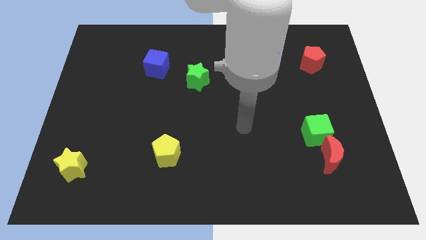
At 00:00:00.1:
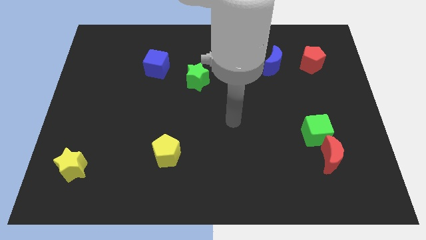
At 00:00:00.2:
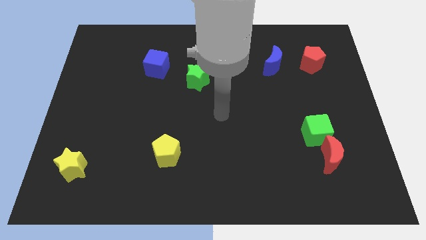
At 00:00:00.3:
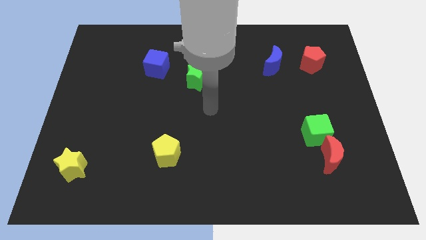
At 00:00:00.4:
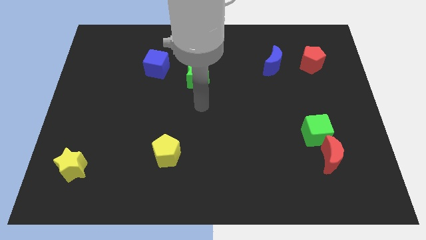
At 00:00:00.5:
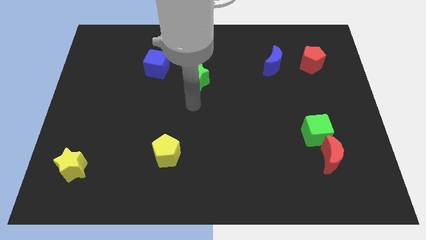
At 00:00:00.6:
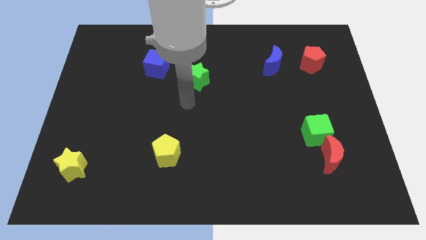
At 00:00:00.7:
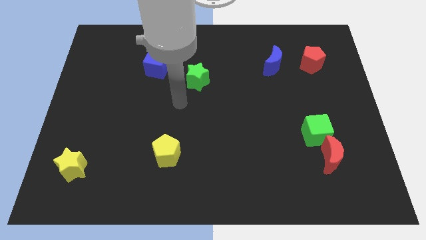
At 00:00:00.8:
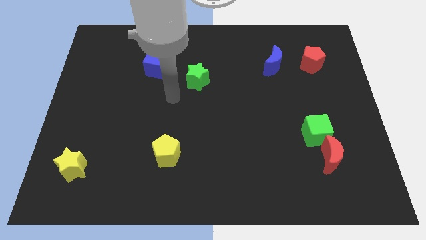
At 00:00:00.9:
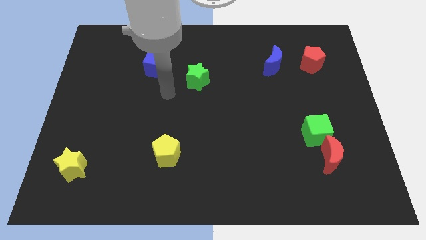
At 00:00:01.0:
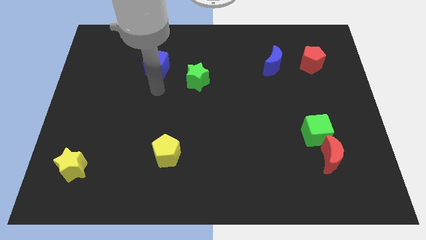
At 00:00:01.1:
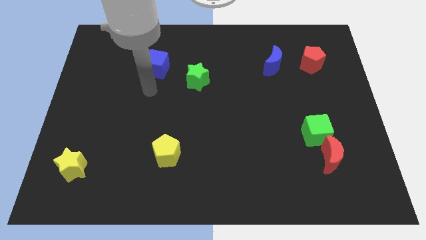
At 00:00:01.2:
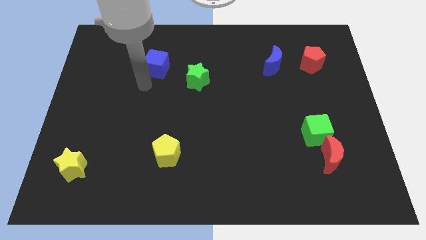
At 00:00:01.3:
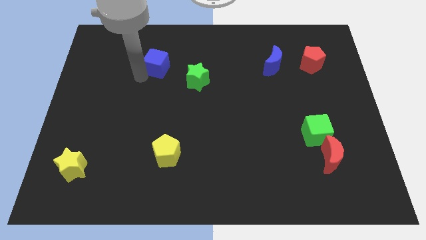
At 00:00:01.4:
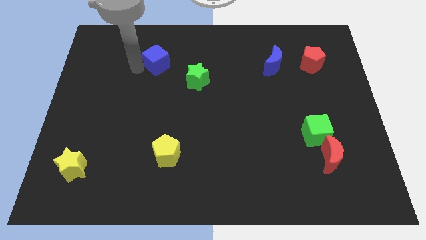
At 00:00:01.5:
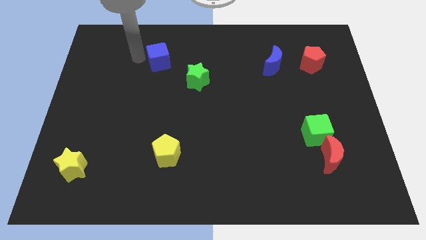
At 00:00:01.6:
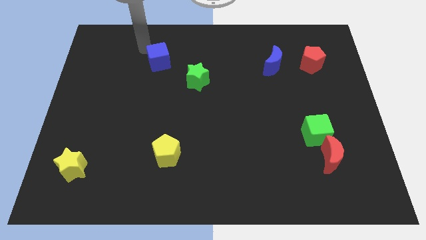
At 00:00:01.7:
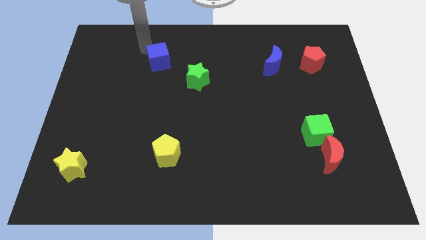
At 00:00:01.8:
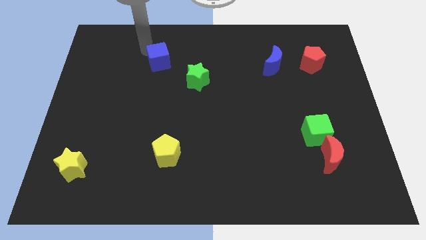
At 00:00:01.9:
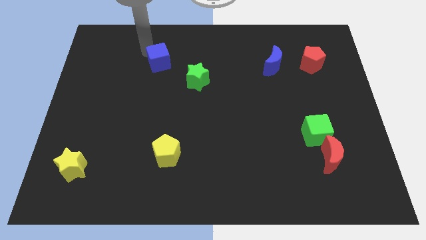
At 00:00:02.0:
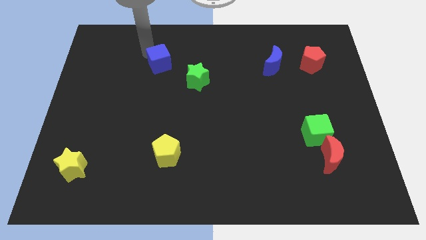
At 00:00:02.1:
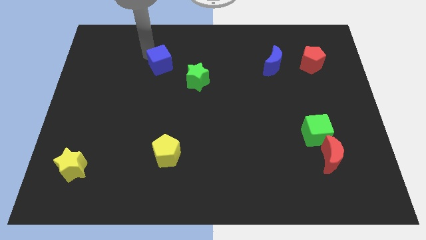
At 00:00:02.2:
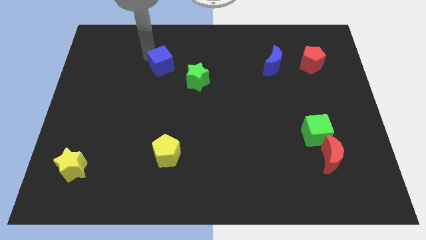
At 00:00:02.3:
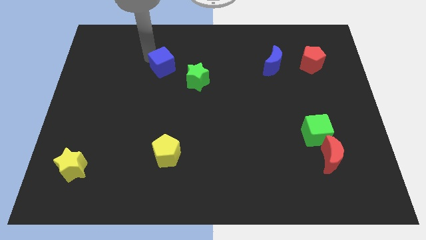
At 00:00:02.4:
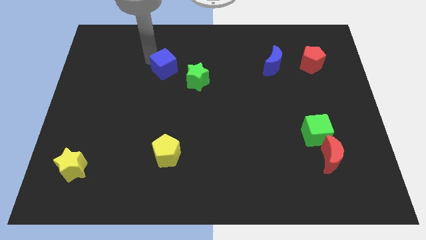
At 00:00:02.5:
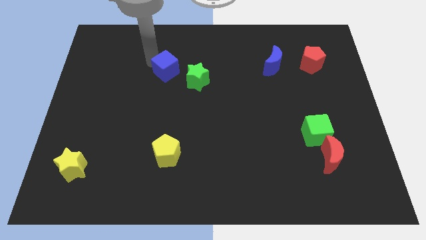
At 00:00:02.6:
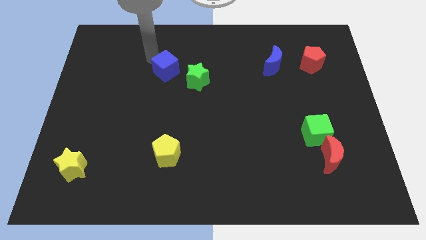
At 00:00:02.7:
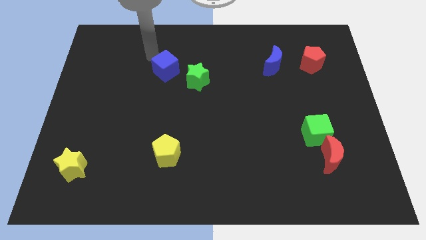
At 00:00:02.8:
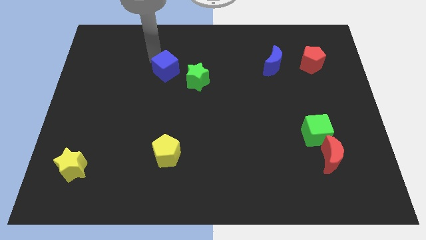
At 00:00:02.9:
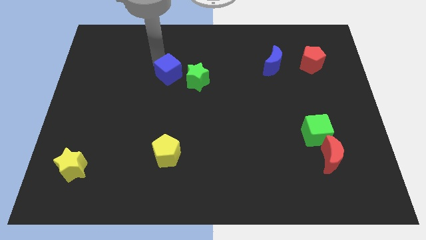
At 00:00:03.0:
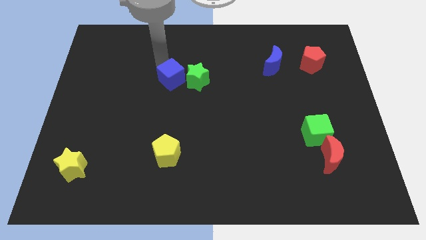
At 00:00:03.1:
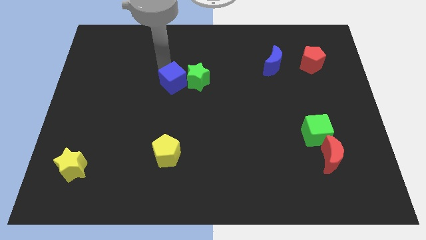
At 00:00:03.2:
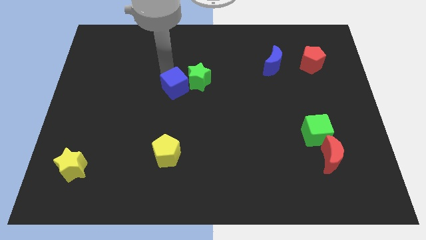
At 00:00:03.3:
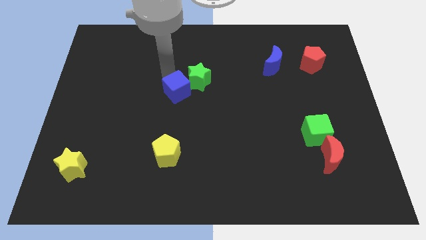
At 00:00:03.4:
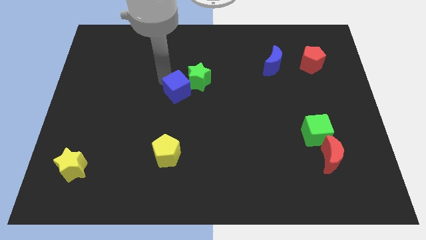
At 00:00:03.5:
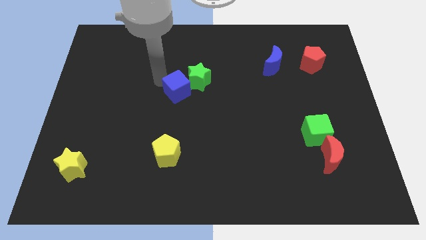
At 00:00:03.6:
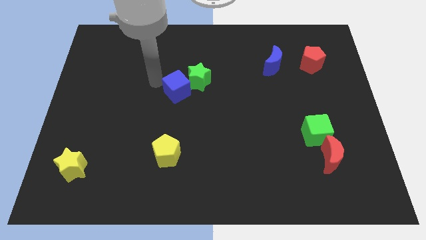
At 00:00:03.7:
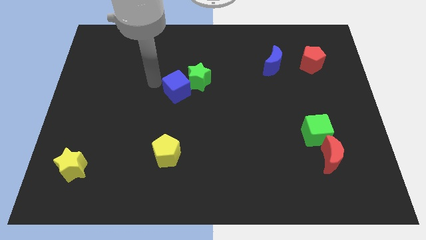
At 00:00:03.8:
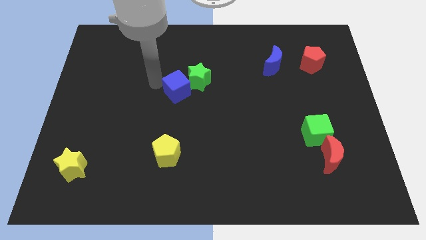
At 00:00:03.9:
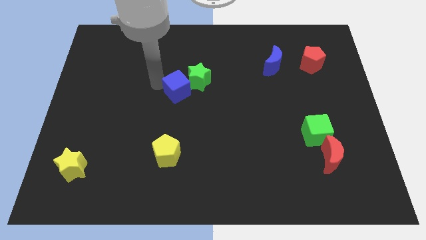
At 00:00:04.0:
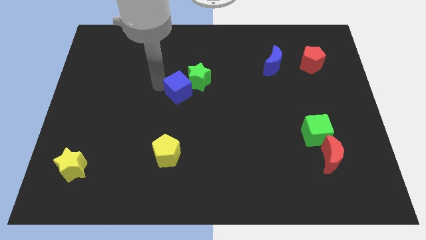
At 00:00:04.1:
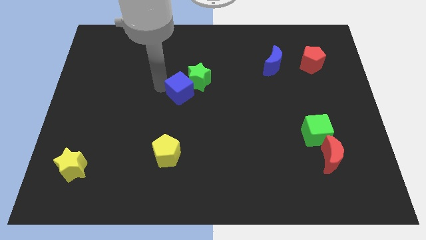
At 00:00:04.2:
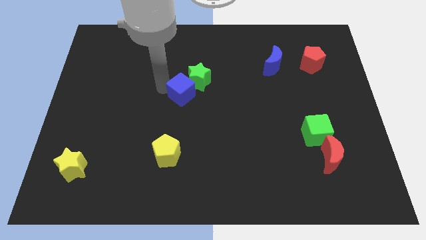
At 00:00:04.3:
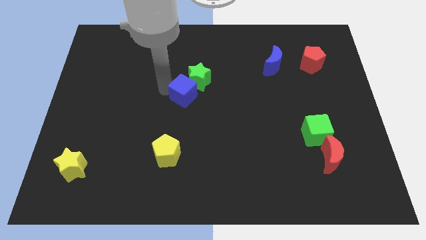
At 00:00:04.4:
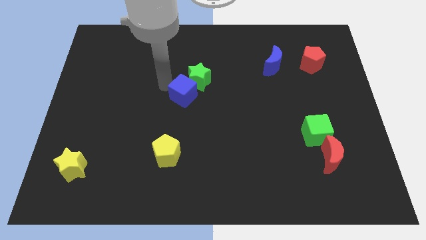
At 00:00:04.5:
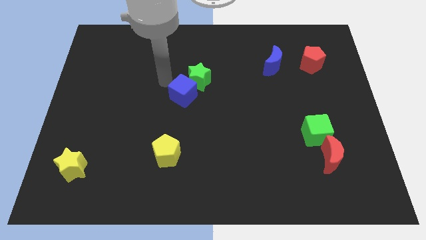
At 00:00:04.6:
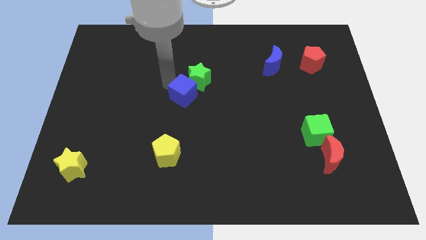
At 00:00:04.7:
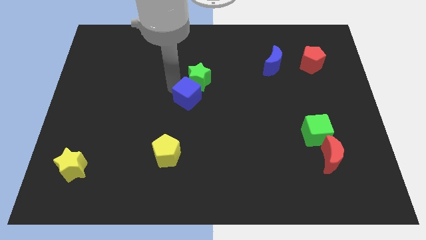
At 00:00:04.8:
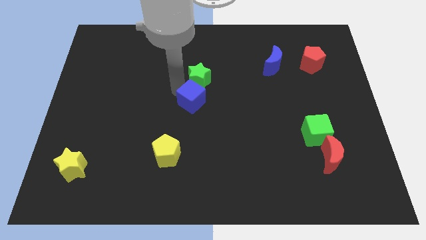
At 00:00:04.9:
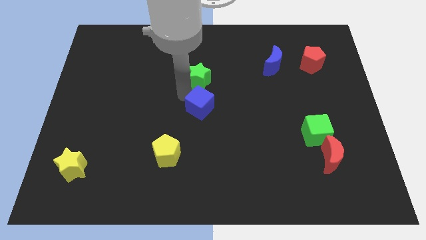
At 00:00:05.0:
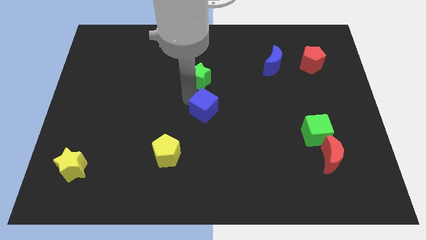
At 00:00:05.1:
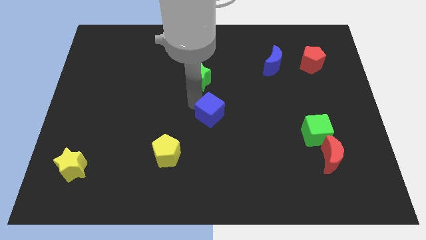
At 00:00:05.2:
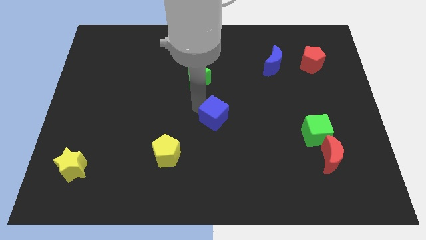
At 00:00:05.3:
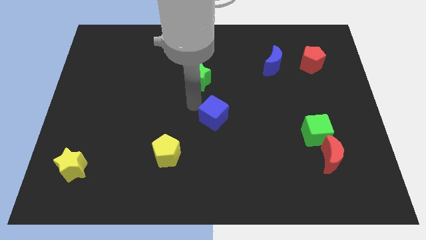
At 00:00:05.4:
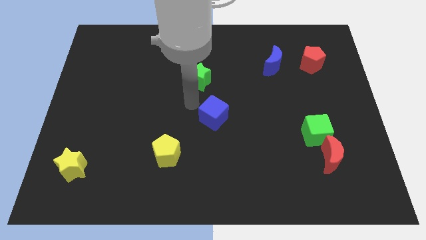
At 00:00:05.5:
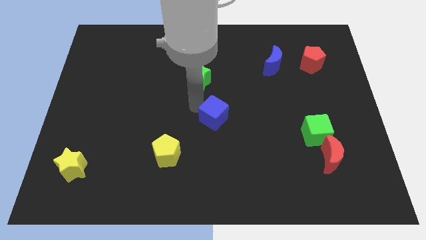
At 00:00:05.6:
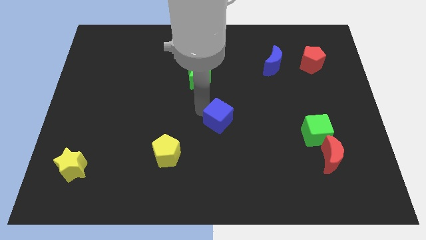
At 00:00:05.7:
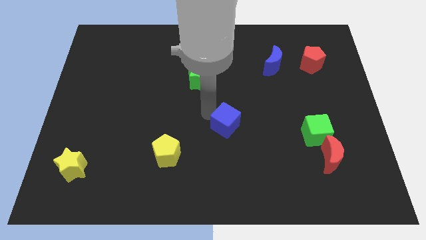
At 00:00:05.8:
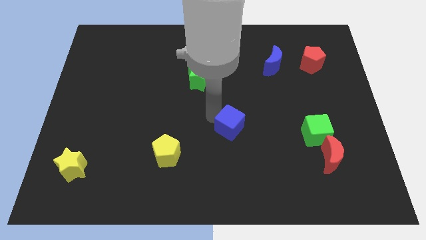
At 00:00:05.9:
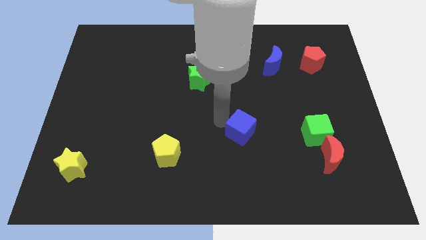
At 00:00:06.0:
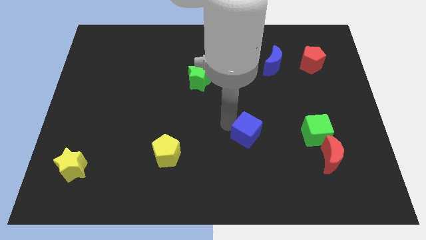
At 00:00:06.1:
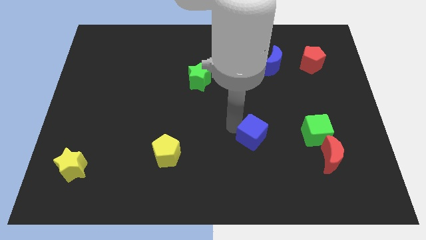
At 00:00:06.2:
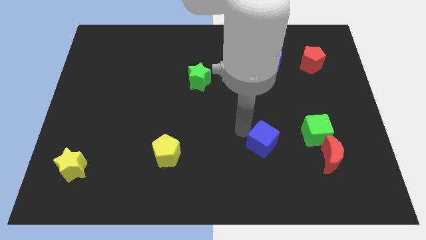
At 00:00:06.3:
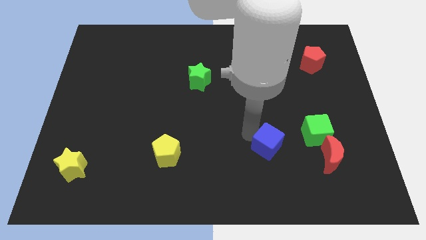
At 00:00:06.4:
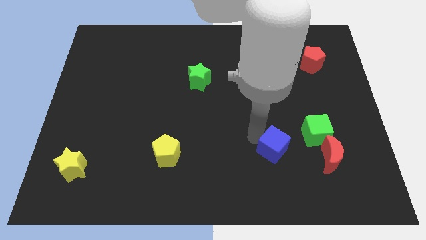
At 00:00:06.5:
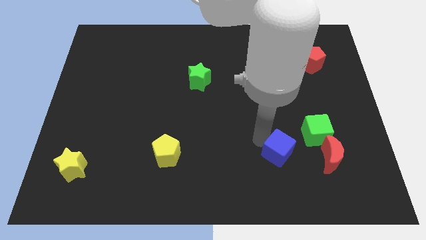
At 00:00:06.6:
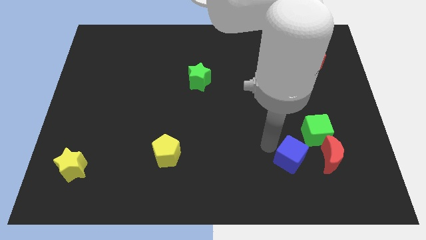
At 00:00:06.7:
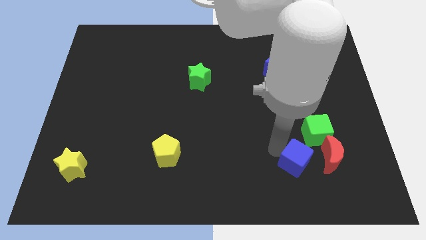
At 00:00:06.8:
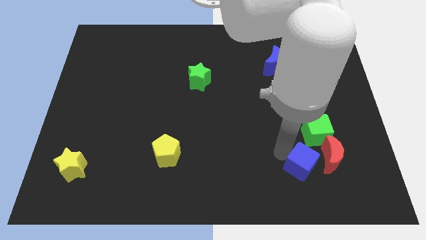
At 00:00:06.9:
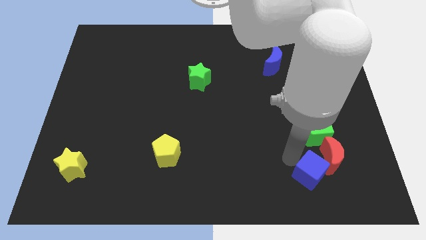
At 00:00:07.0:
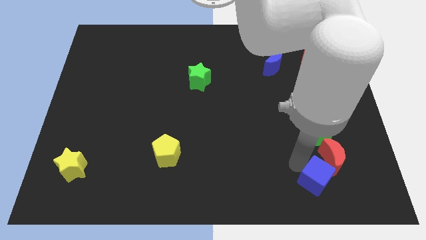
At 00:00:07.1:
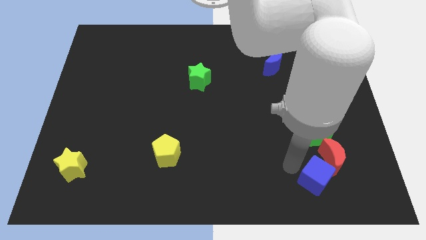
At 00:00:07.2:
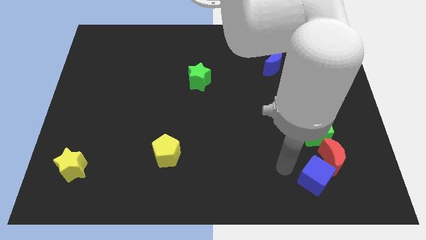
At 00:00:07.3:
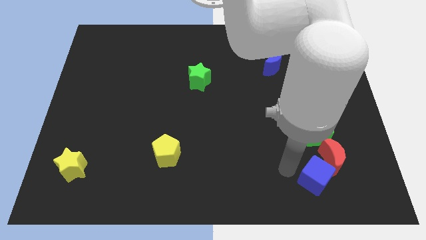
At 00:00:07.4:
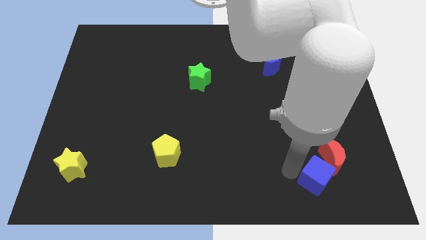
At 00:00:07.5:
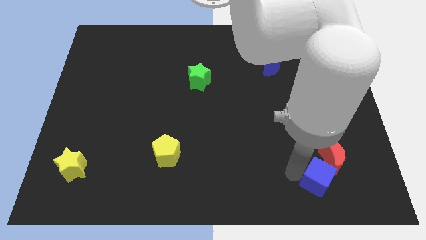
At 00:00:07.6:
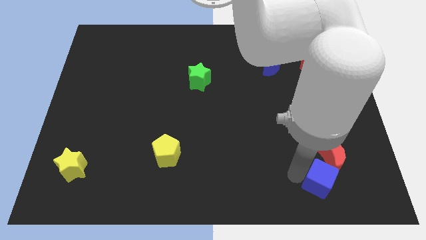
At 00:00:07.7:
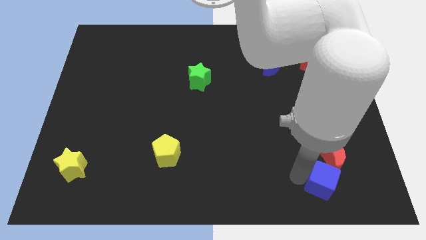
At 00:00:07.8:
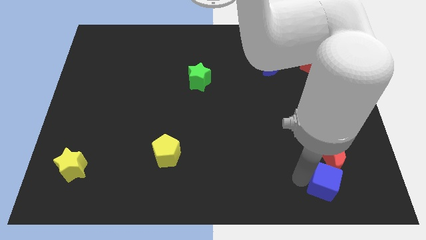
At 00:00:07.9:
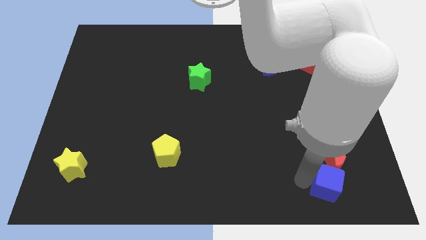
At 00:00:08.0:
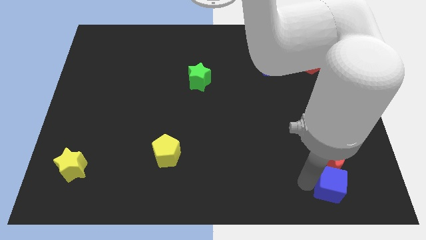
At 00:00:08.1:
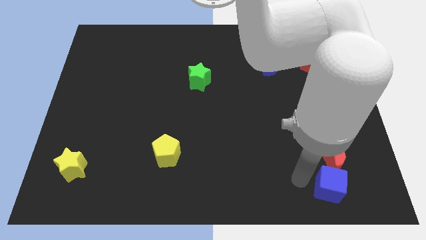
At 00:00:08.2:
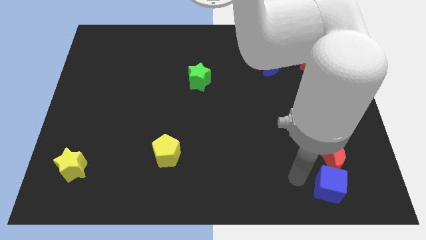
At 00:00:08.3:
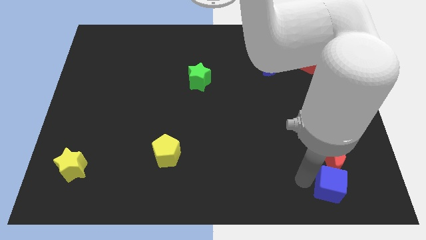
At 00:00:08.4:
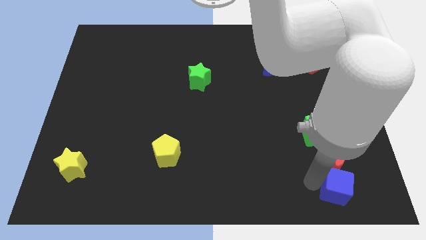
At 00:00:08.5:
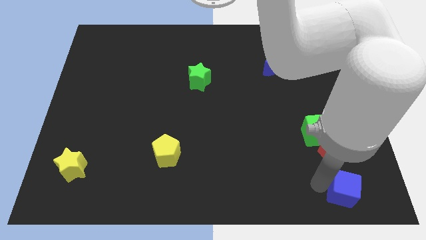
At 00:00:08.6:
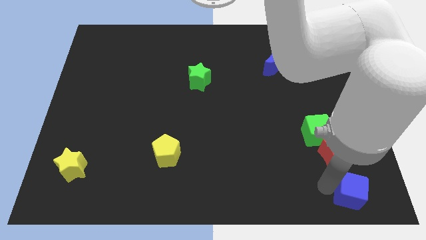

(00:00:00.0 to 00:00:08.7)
push the blue cube to the bottom right of the board
